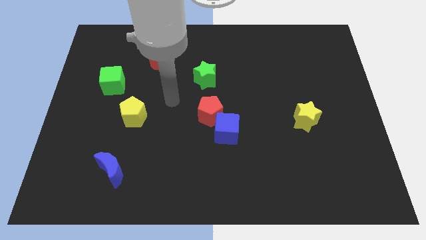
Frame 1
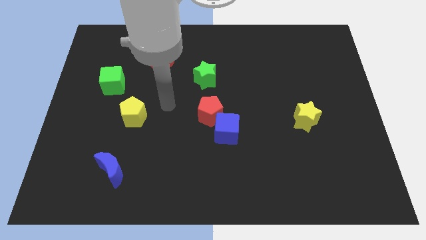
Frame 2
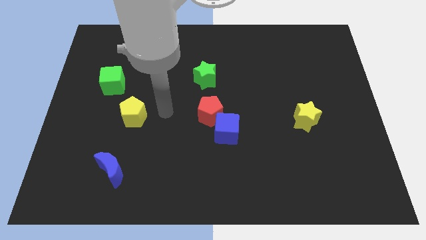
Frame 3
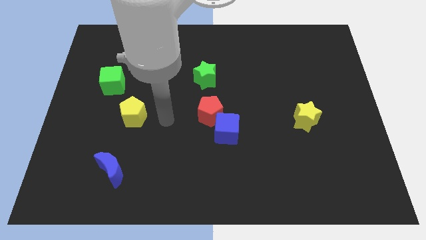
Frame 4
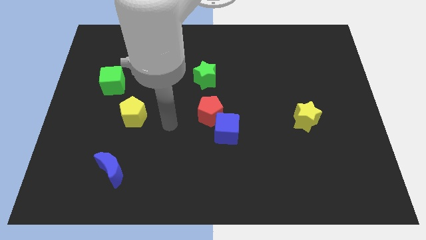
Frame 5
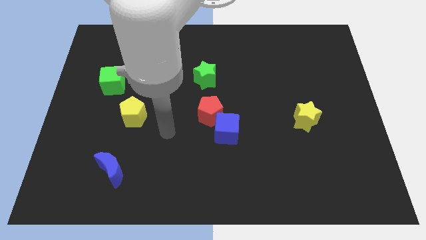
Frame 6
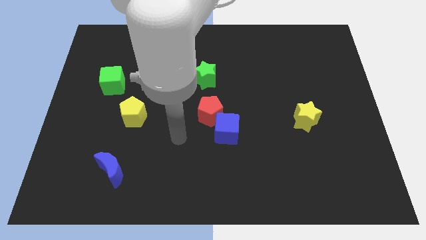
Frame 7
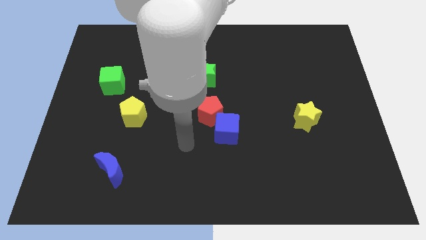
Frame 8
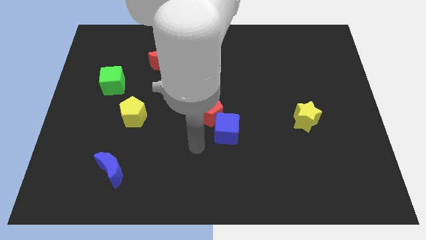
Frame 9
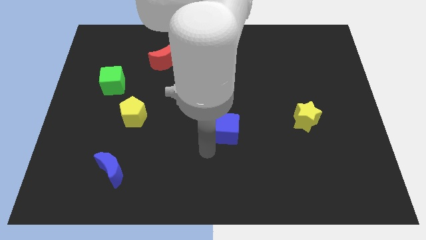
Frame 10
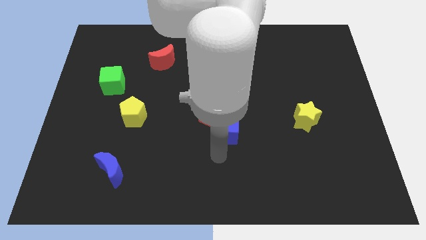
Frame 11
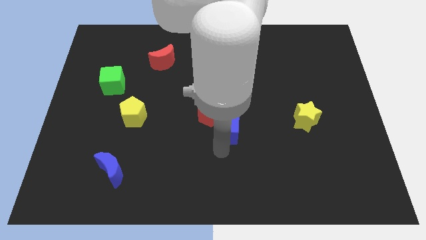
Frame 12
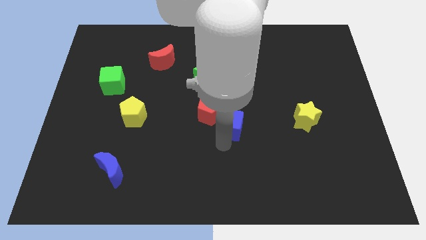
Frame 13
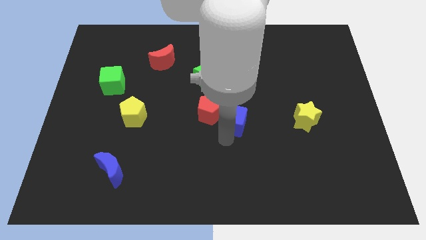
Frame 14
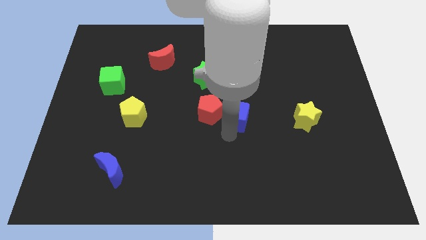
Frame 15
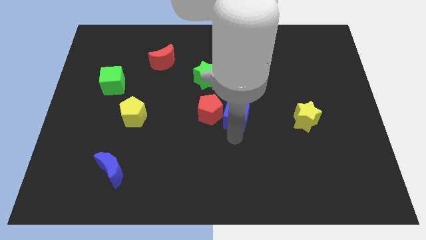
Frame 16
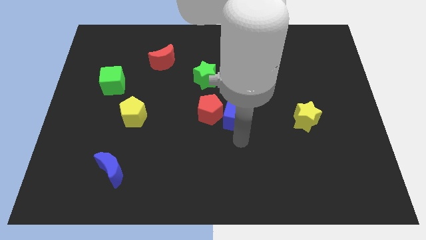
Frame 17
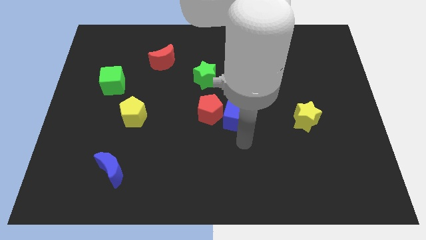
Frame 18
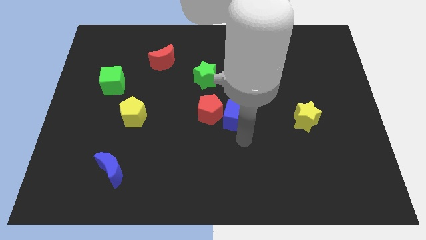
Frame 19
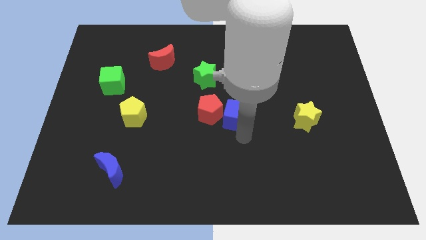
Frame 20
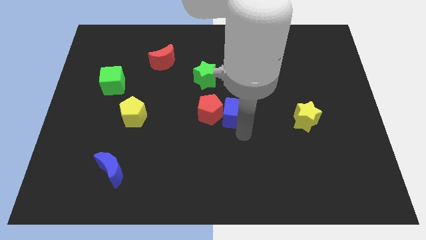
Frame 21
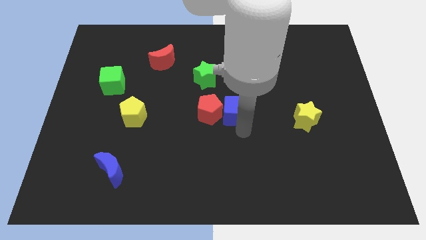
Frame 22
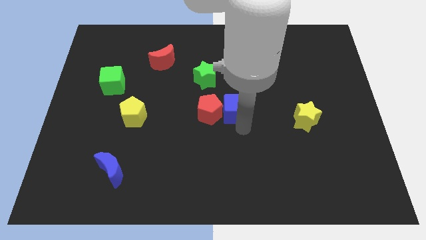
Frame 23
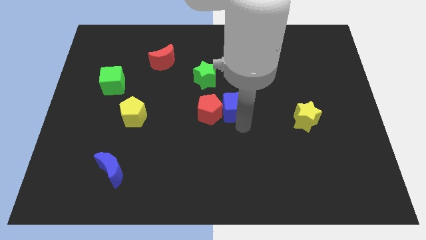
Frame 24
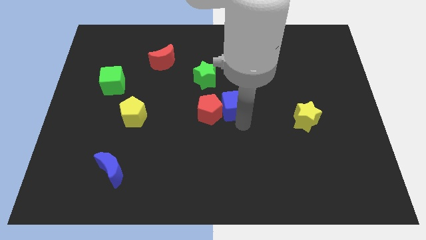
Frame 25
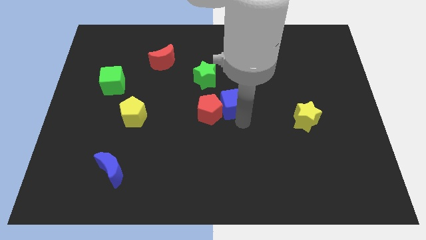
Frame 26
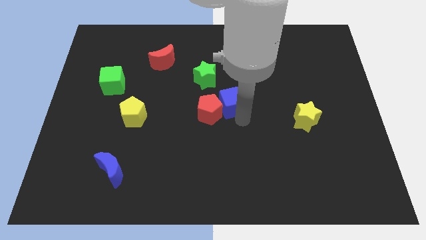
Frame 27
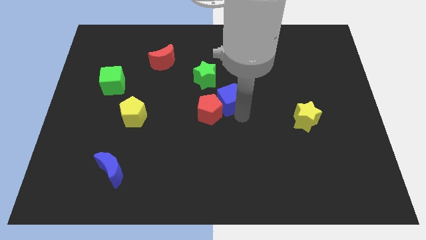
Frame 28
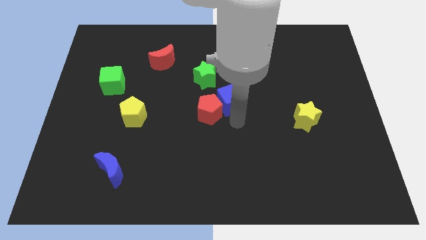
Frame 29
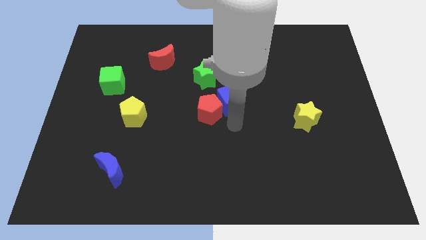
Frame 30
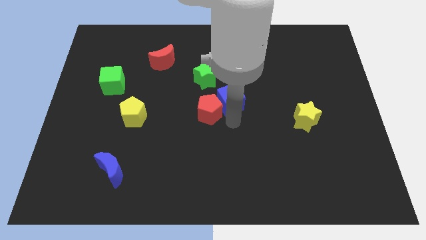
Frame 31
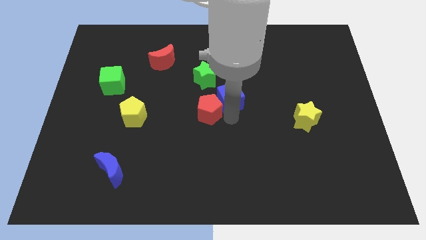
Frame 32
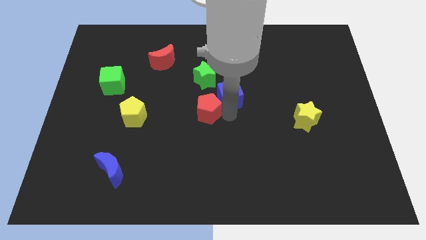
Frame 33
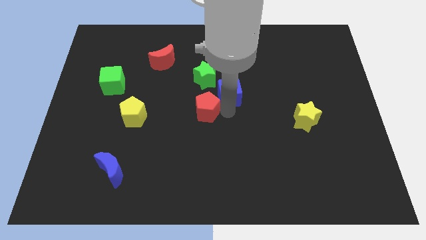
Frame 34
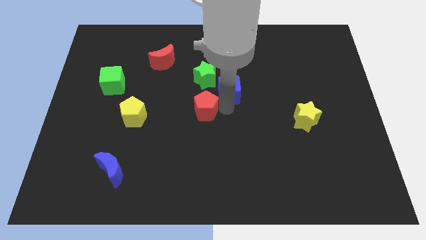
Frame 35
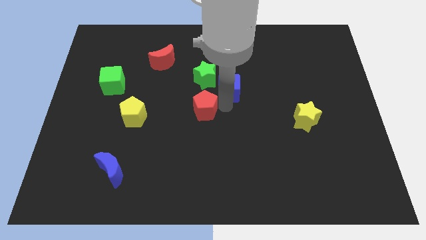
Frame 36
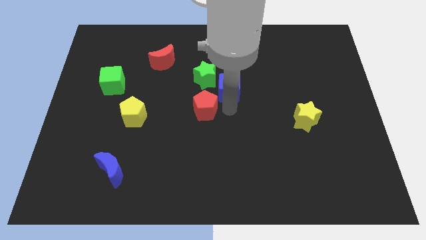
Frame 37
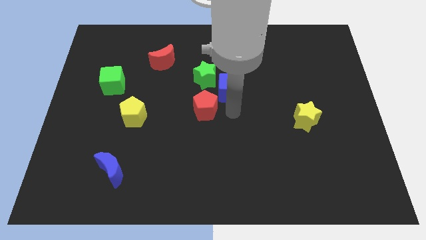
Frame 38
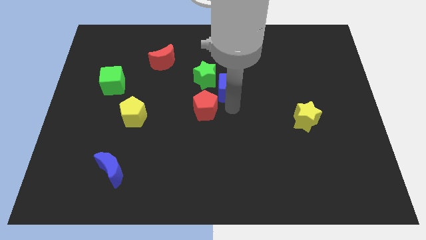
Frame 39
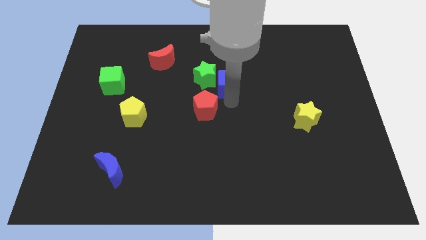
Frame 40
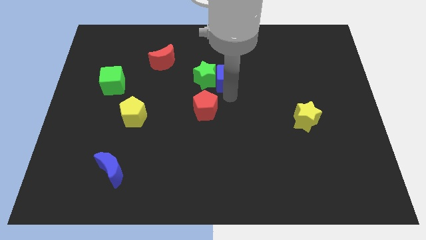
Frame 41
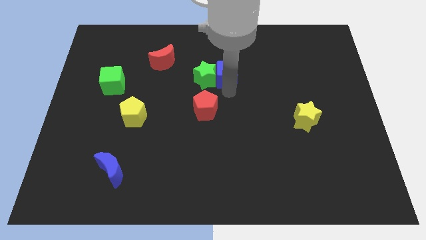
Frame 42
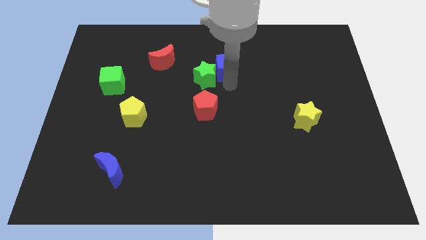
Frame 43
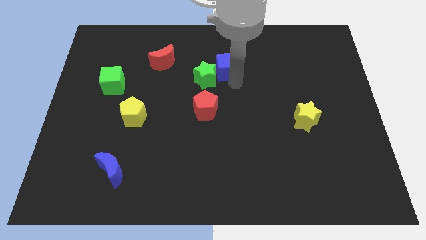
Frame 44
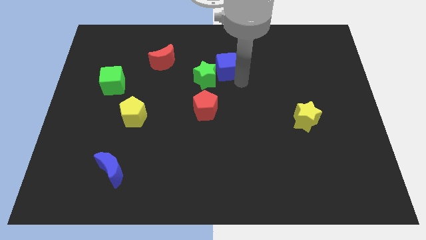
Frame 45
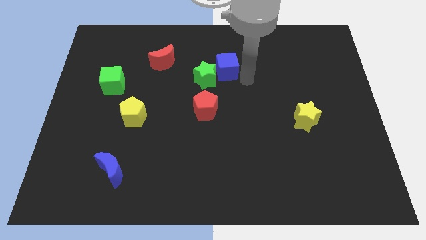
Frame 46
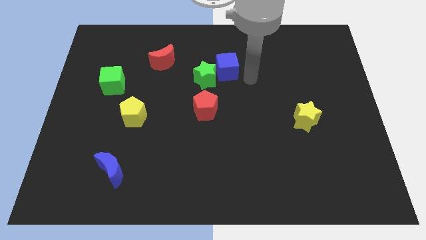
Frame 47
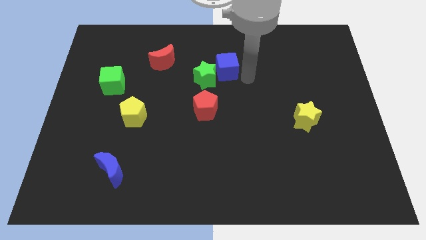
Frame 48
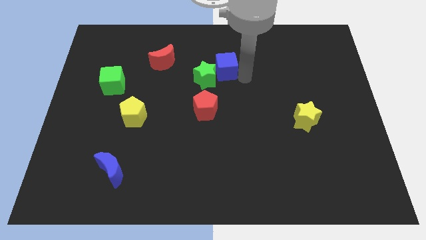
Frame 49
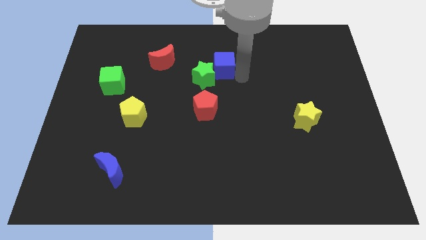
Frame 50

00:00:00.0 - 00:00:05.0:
push the blue cube to the right side of the red moon

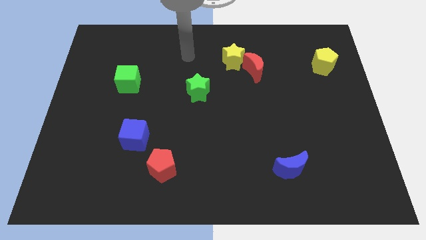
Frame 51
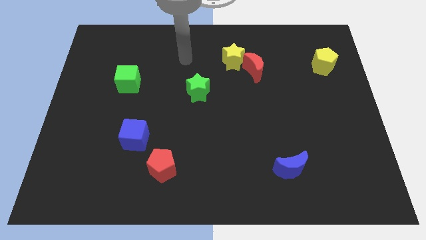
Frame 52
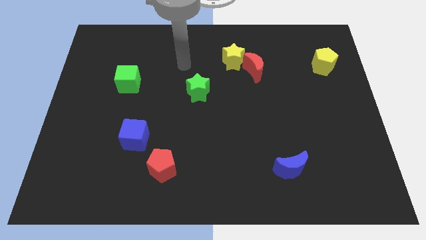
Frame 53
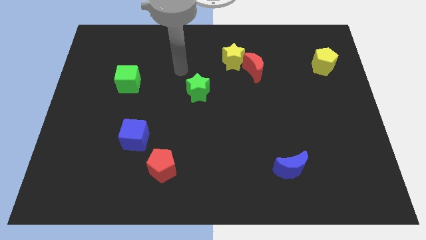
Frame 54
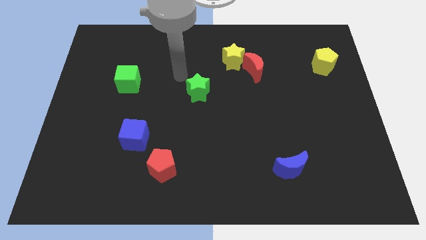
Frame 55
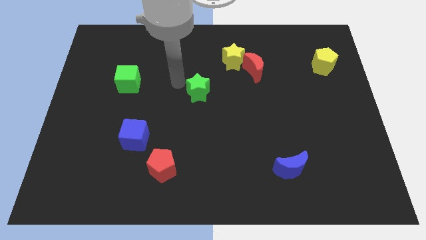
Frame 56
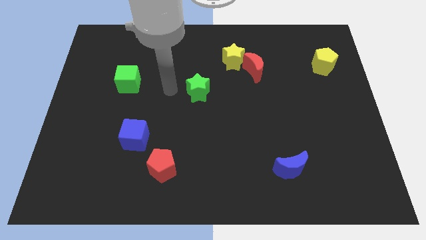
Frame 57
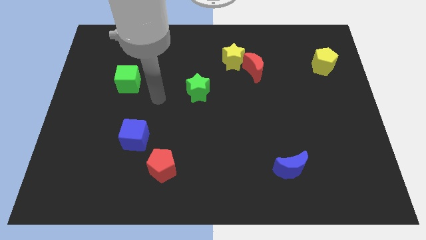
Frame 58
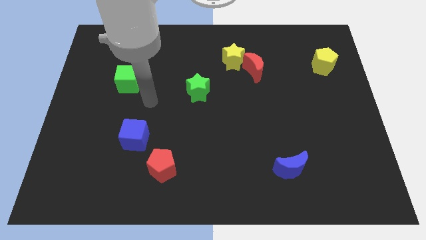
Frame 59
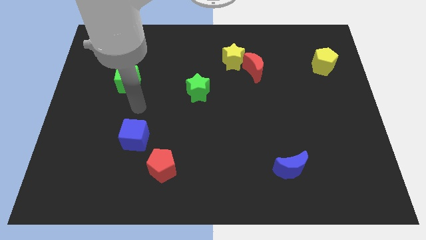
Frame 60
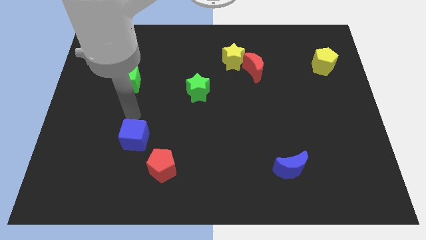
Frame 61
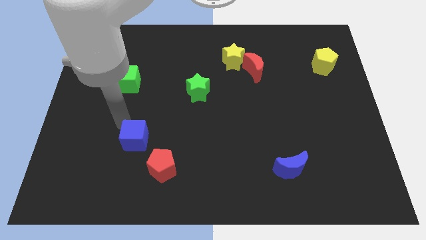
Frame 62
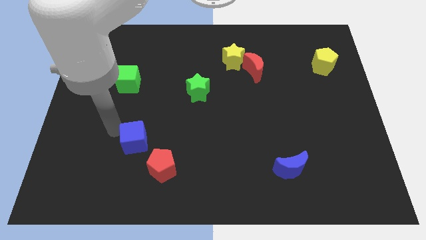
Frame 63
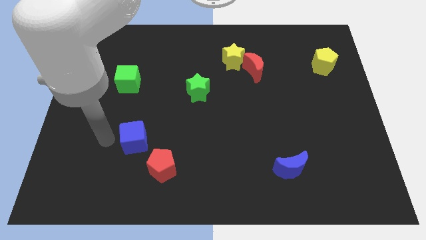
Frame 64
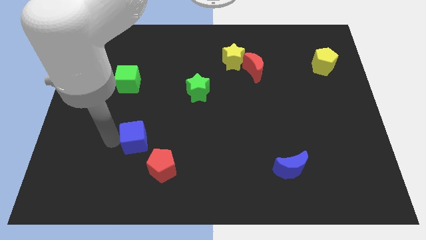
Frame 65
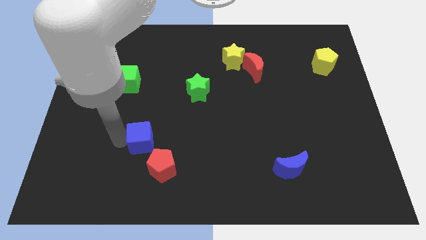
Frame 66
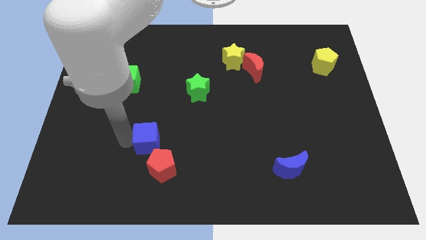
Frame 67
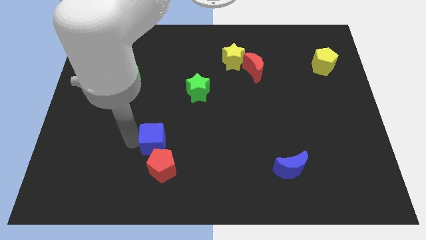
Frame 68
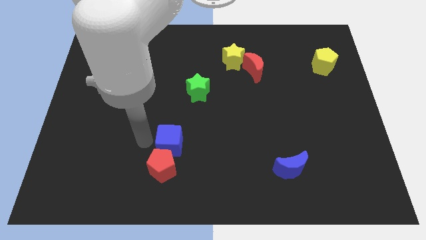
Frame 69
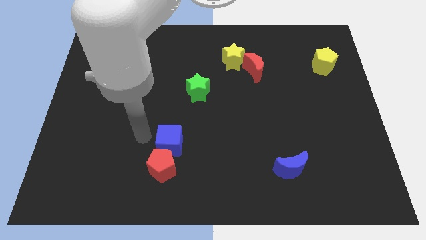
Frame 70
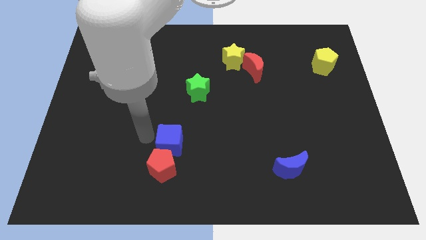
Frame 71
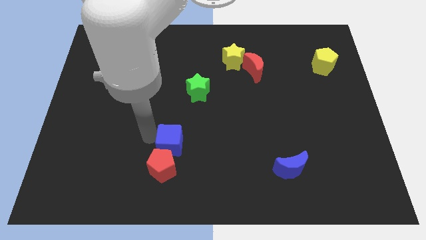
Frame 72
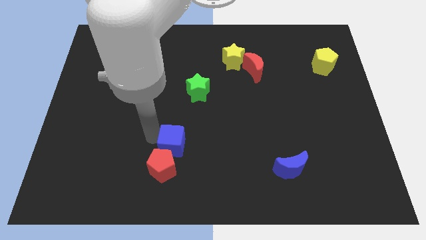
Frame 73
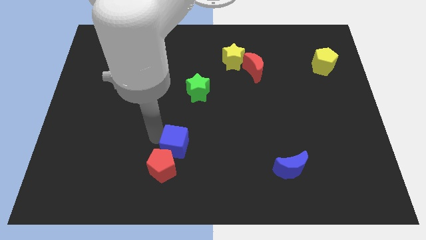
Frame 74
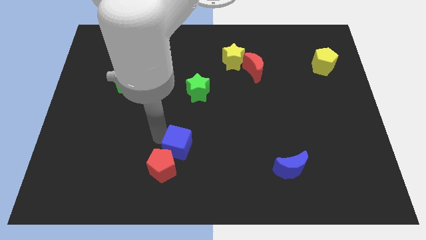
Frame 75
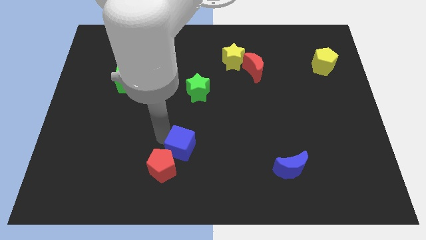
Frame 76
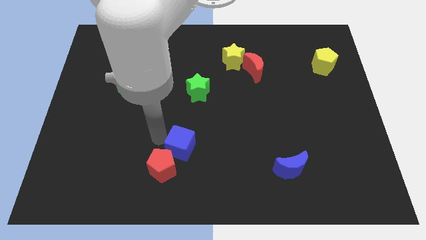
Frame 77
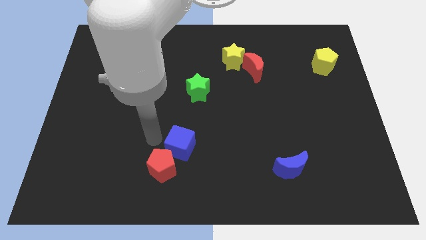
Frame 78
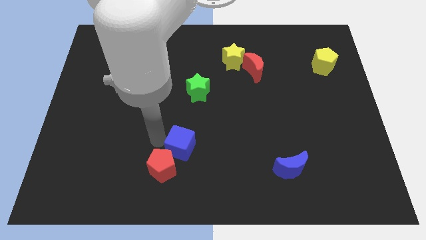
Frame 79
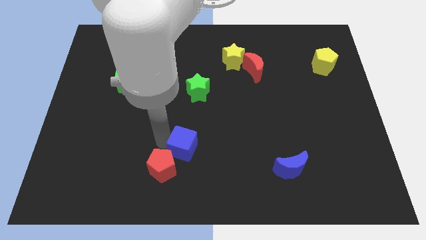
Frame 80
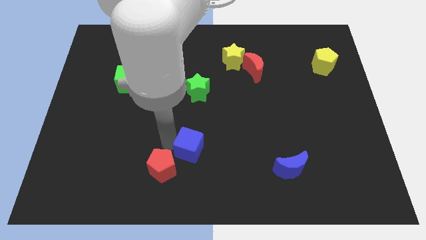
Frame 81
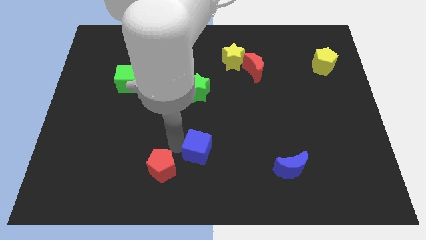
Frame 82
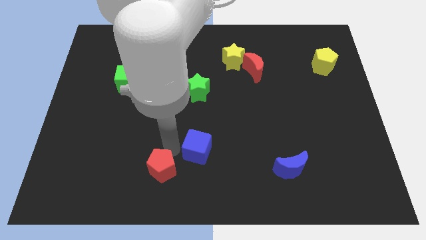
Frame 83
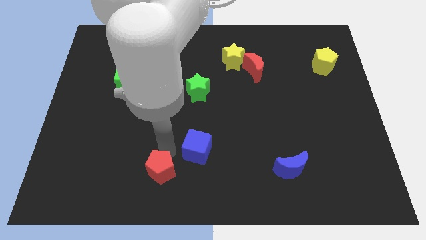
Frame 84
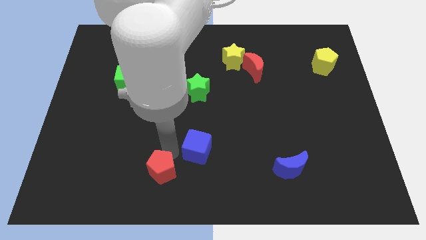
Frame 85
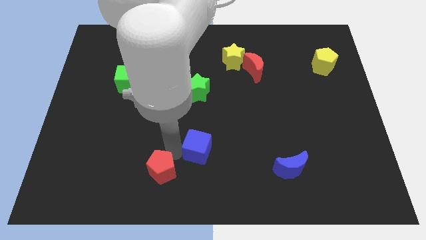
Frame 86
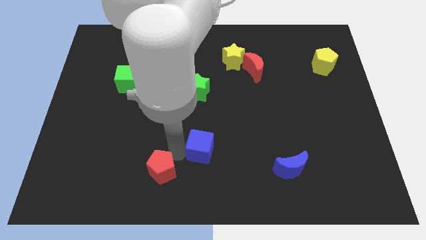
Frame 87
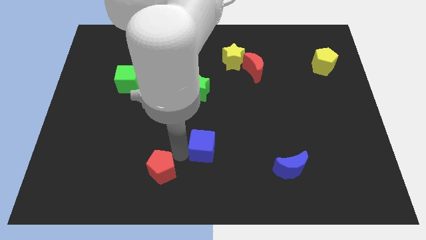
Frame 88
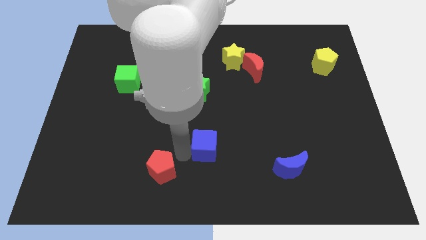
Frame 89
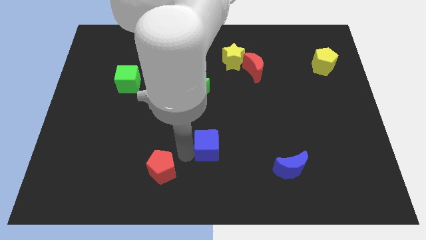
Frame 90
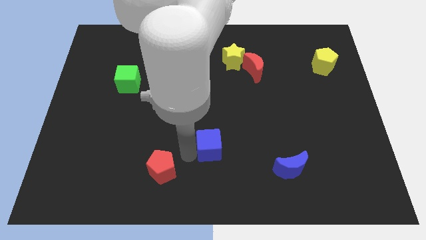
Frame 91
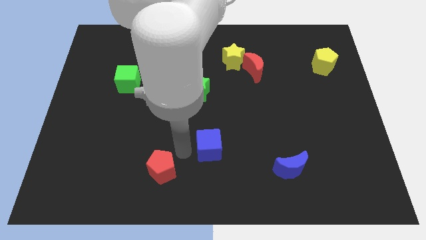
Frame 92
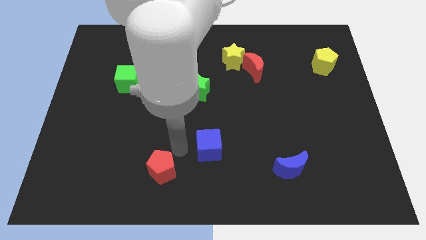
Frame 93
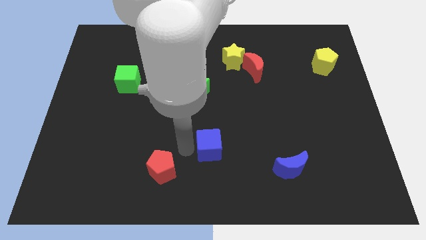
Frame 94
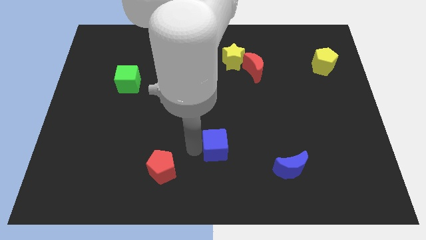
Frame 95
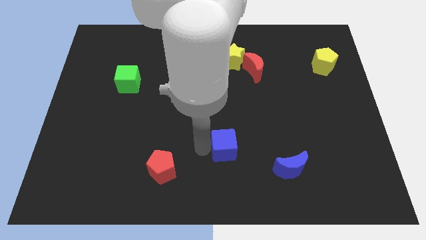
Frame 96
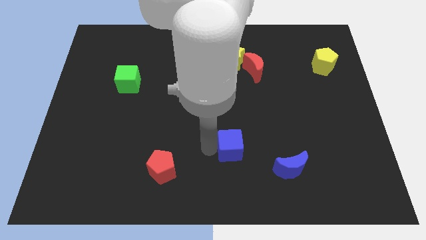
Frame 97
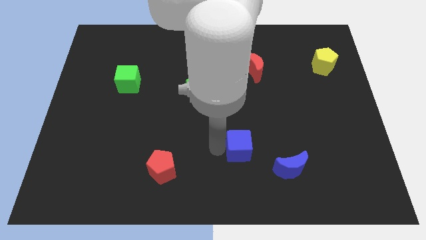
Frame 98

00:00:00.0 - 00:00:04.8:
put the blue cube to the top left side of the blue moon
